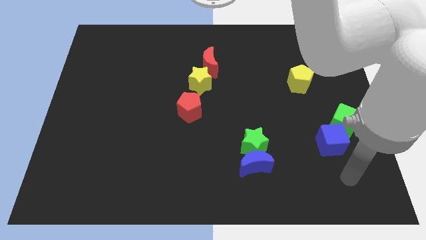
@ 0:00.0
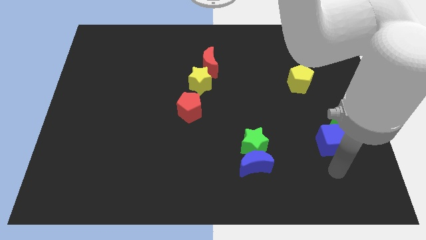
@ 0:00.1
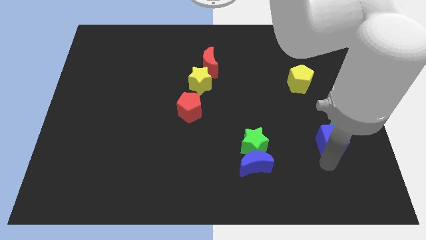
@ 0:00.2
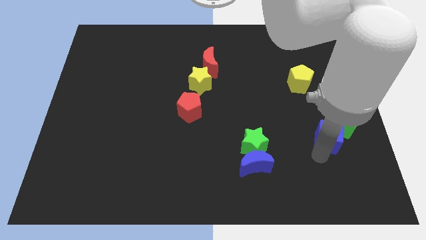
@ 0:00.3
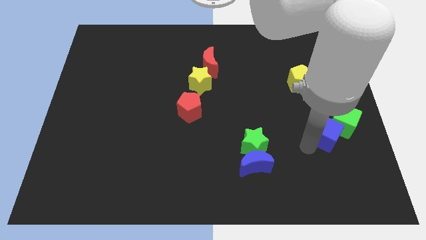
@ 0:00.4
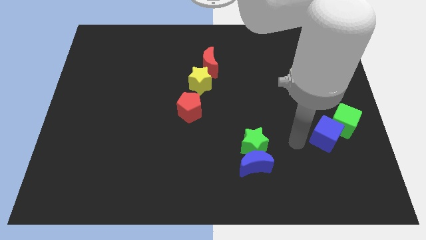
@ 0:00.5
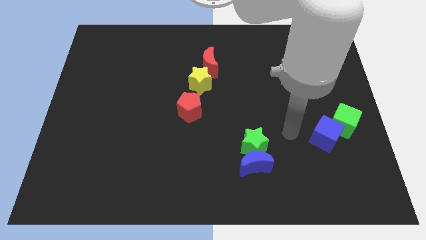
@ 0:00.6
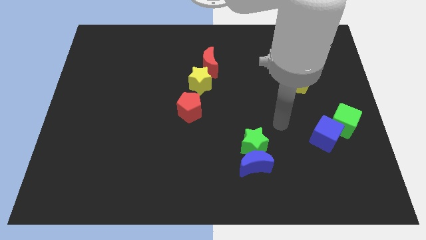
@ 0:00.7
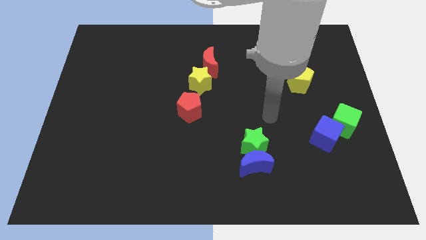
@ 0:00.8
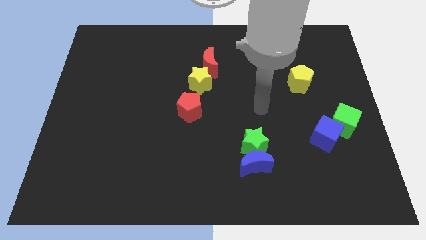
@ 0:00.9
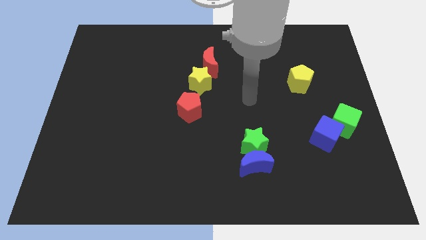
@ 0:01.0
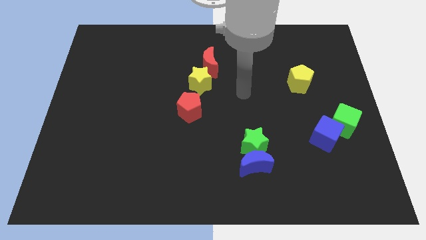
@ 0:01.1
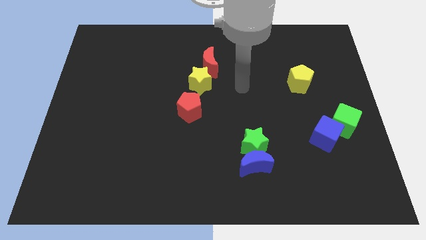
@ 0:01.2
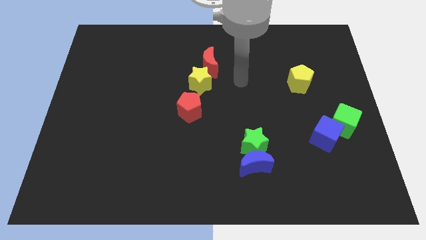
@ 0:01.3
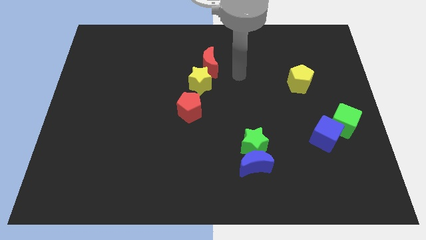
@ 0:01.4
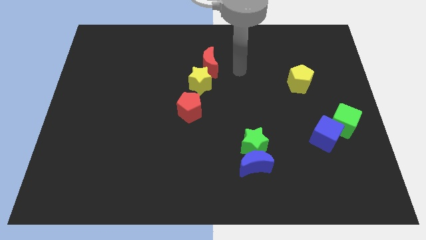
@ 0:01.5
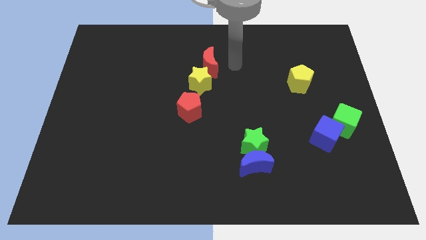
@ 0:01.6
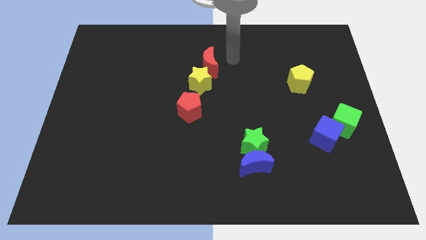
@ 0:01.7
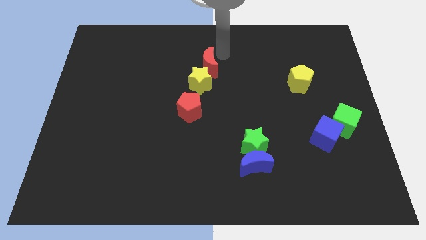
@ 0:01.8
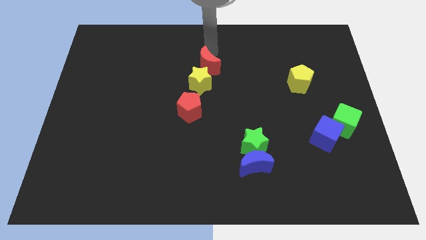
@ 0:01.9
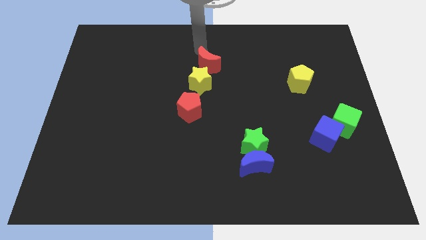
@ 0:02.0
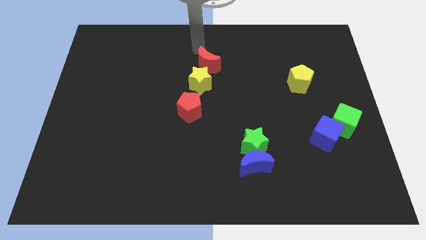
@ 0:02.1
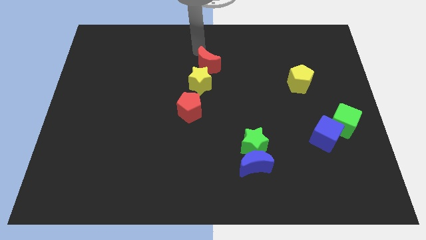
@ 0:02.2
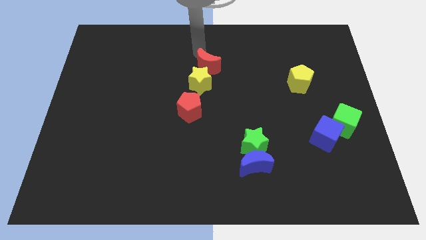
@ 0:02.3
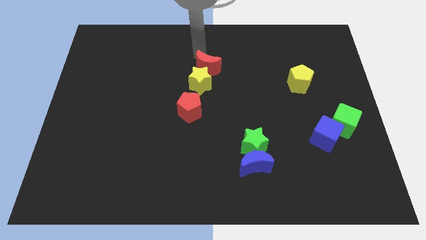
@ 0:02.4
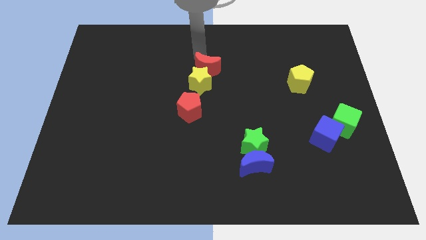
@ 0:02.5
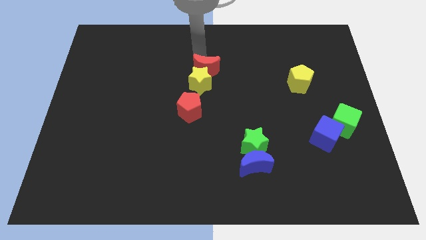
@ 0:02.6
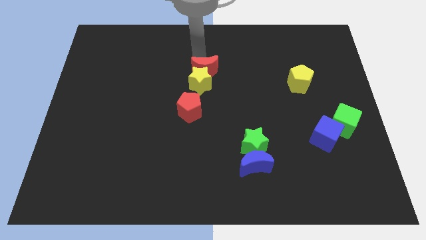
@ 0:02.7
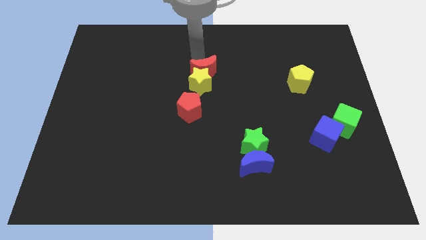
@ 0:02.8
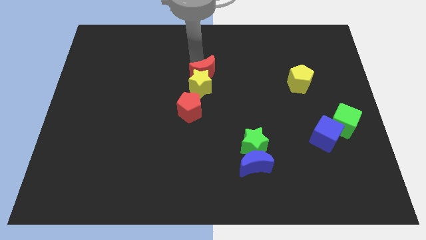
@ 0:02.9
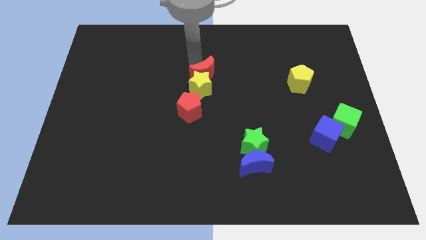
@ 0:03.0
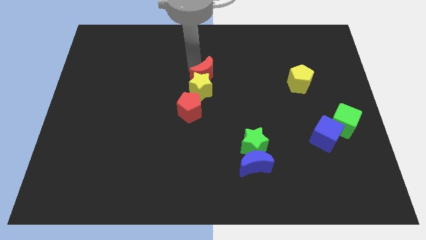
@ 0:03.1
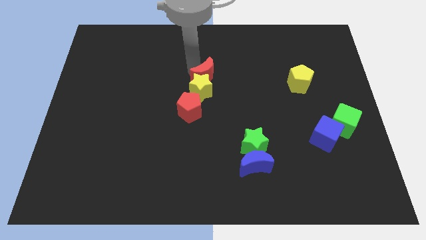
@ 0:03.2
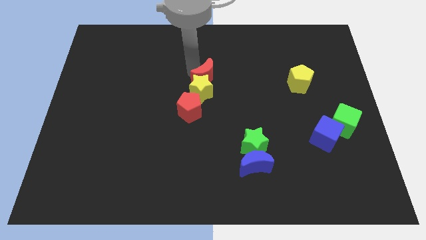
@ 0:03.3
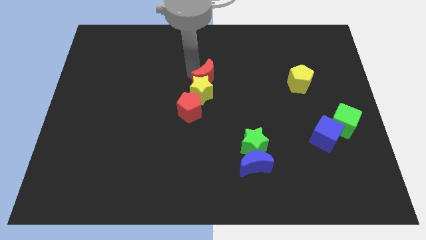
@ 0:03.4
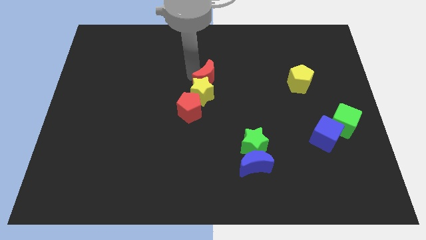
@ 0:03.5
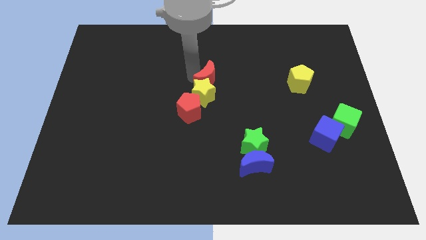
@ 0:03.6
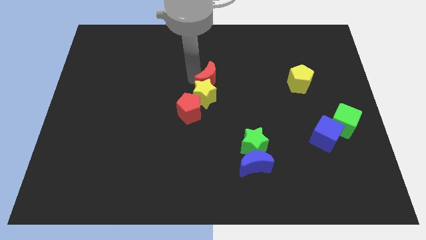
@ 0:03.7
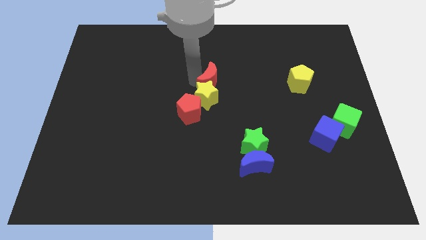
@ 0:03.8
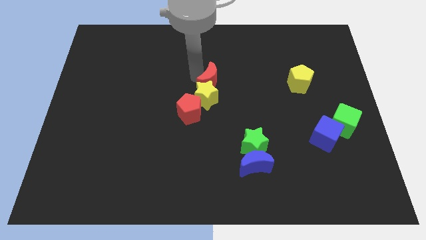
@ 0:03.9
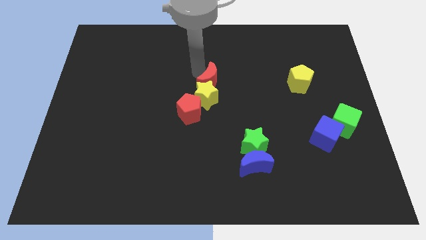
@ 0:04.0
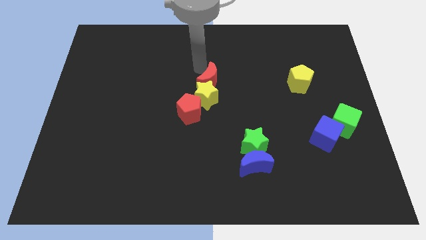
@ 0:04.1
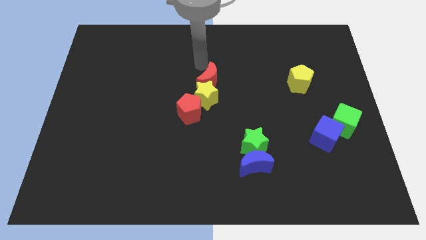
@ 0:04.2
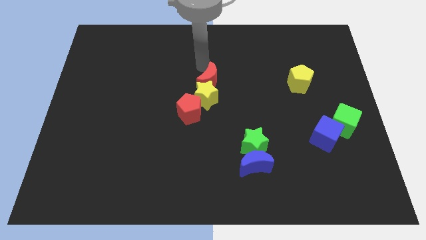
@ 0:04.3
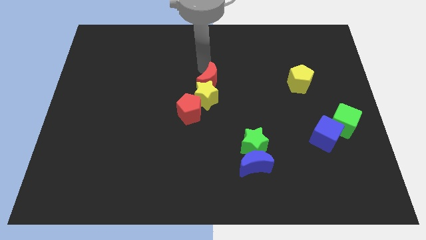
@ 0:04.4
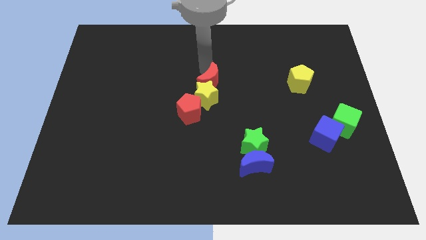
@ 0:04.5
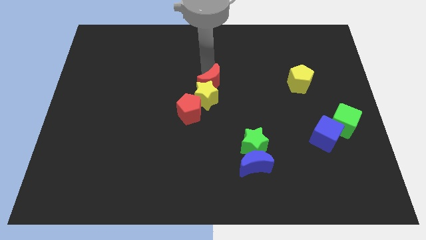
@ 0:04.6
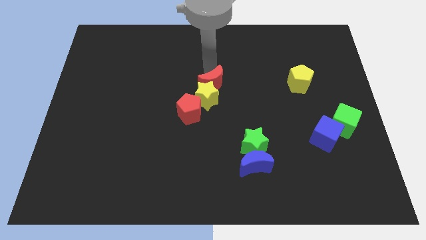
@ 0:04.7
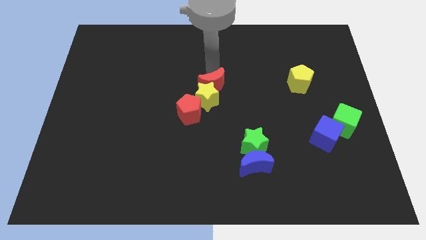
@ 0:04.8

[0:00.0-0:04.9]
slide the red moon a bit downwards

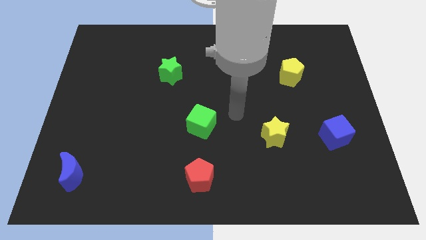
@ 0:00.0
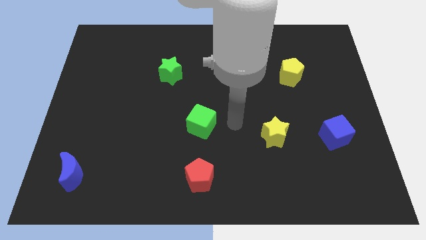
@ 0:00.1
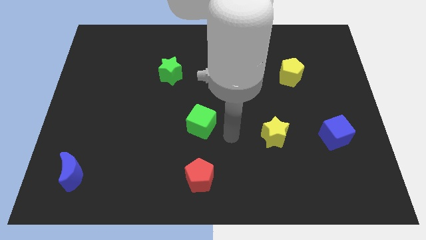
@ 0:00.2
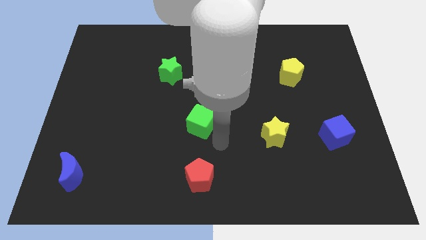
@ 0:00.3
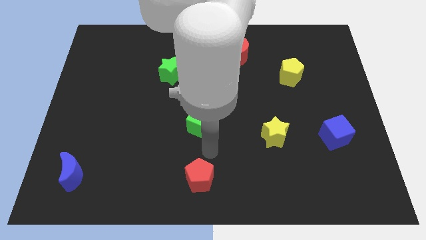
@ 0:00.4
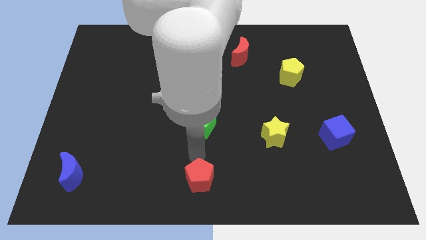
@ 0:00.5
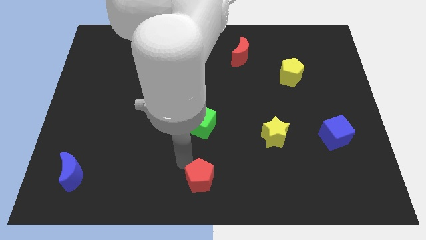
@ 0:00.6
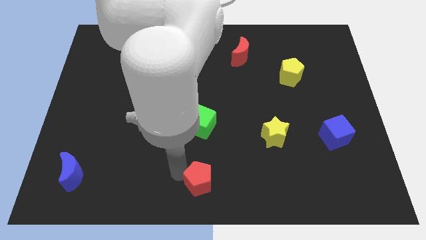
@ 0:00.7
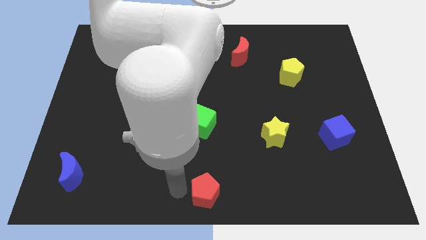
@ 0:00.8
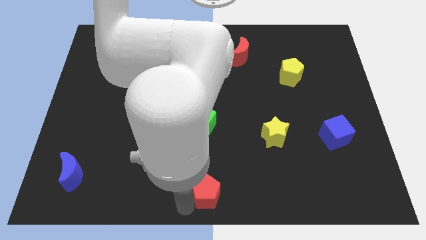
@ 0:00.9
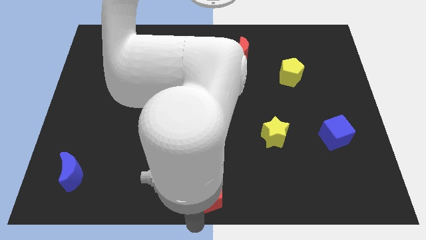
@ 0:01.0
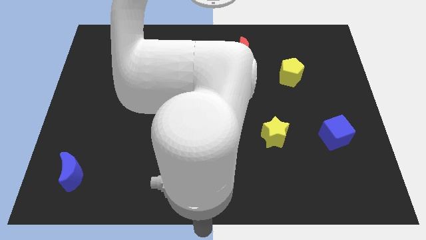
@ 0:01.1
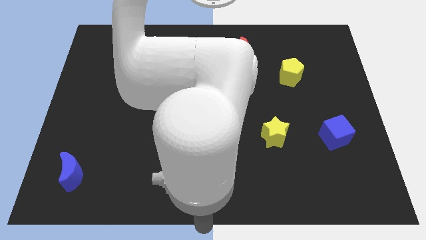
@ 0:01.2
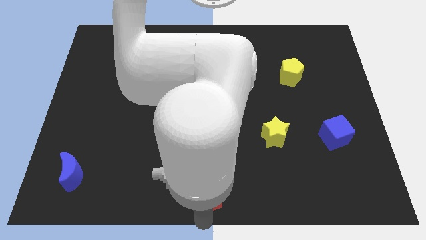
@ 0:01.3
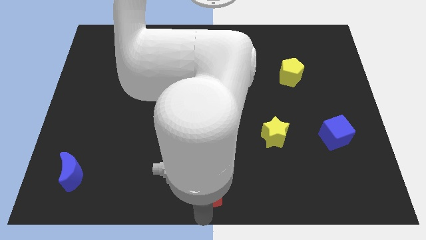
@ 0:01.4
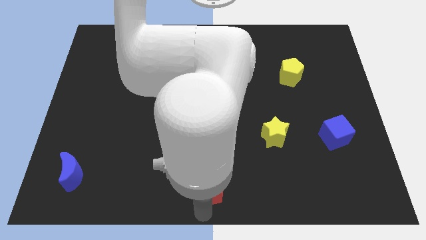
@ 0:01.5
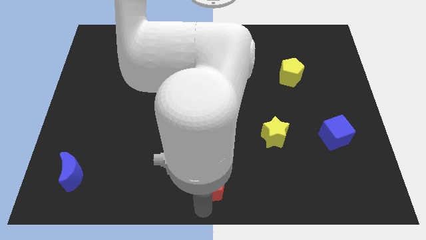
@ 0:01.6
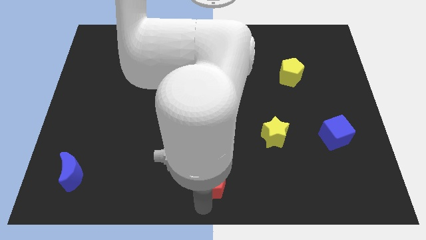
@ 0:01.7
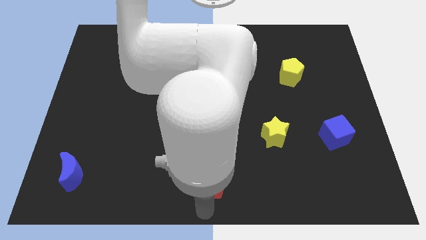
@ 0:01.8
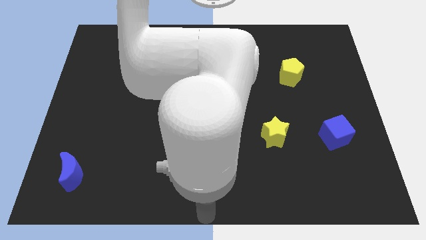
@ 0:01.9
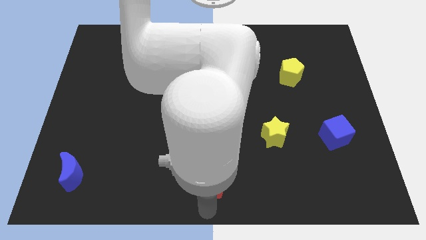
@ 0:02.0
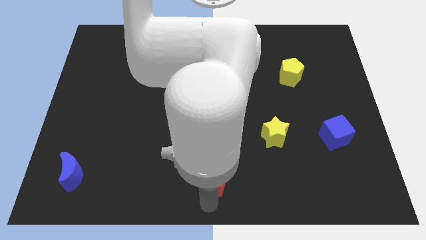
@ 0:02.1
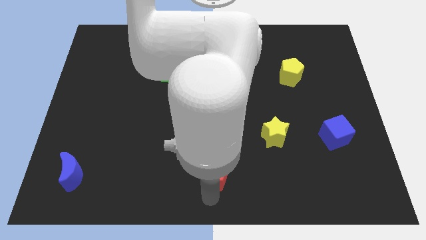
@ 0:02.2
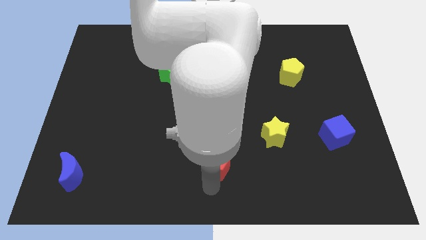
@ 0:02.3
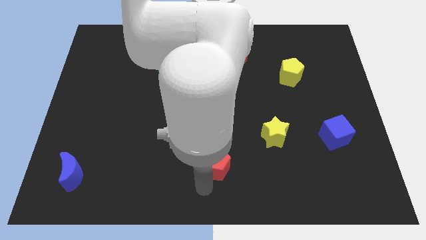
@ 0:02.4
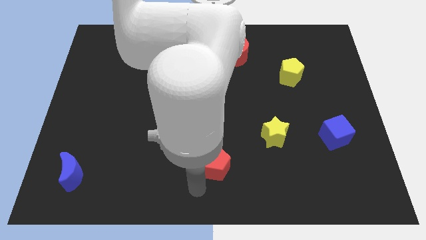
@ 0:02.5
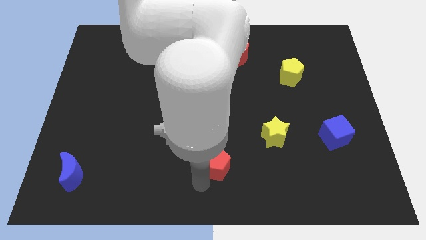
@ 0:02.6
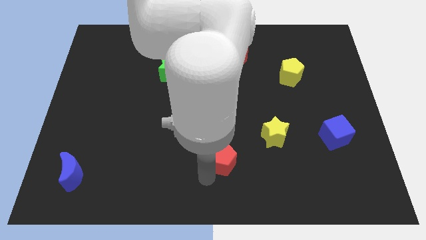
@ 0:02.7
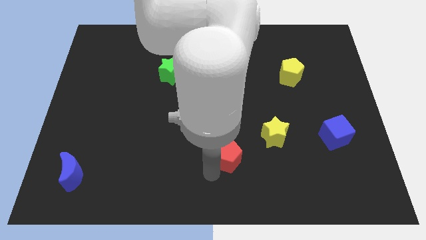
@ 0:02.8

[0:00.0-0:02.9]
slightly push the red pentagon diagonally upwards and right

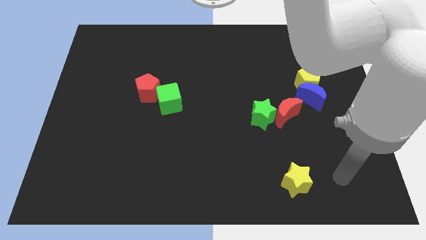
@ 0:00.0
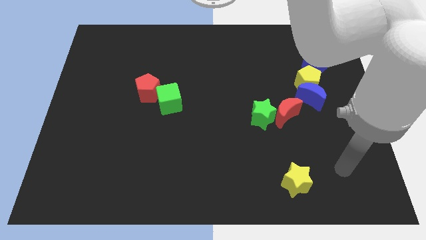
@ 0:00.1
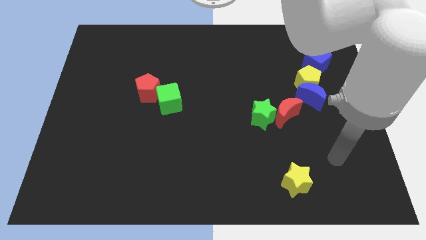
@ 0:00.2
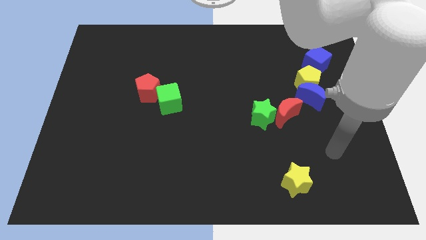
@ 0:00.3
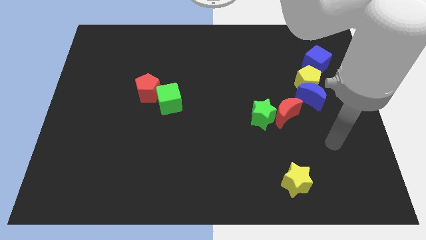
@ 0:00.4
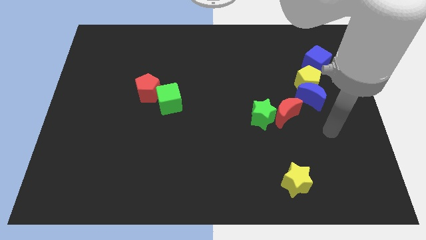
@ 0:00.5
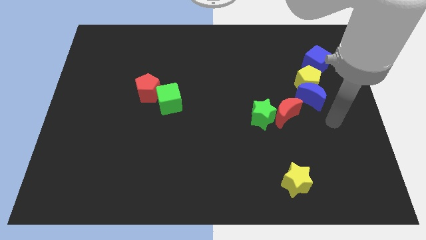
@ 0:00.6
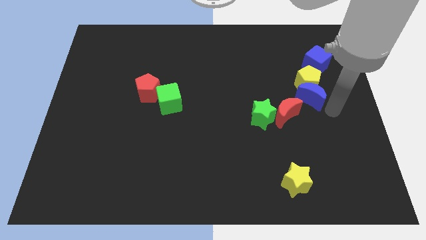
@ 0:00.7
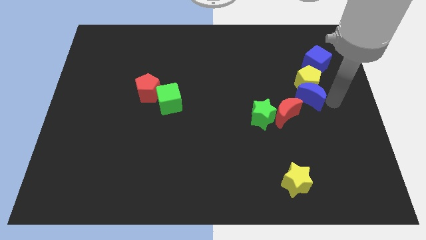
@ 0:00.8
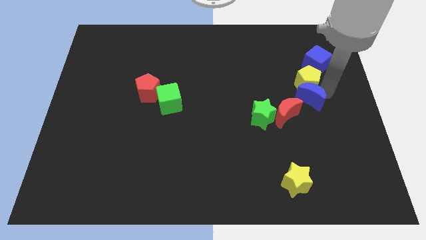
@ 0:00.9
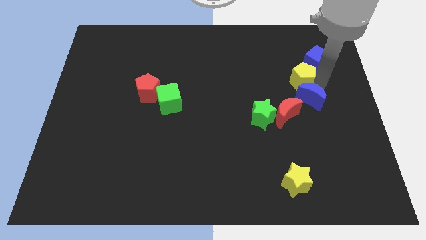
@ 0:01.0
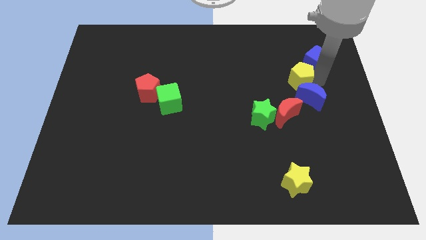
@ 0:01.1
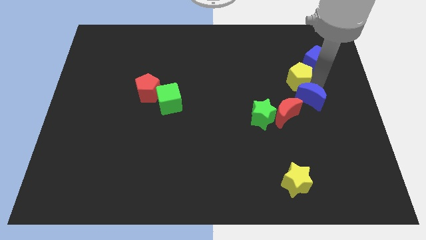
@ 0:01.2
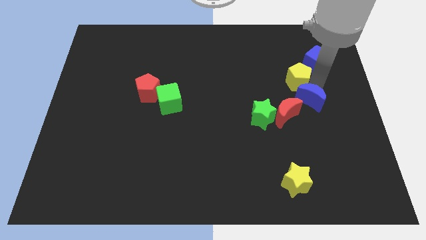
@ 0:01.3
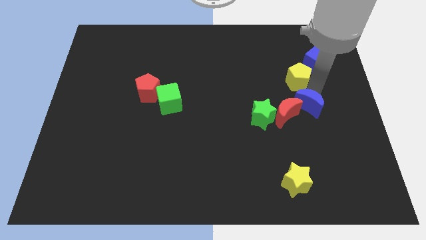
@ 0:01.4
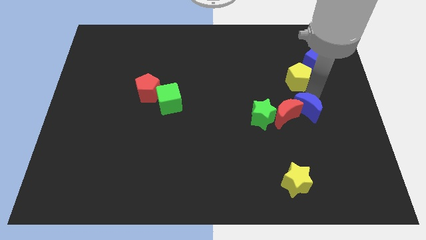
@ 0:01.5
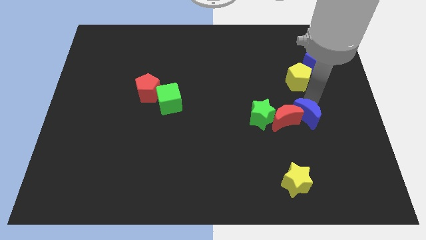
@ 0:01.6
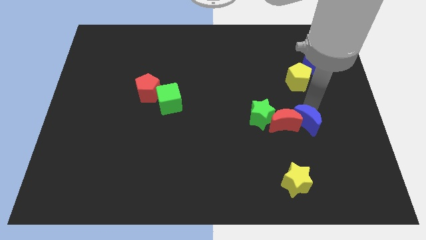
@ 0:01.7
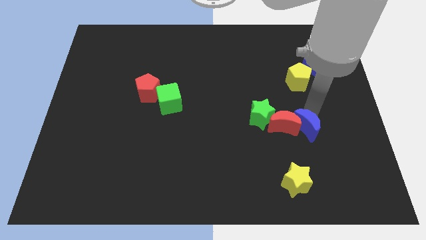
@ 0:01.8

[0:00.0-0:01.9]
push the blue moon down and to the left diagonally a little bit
